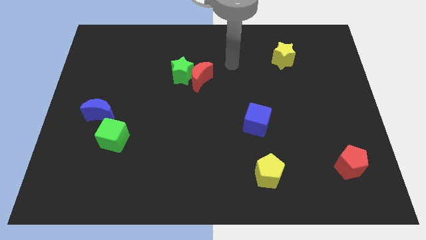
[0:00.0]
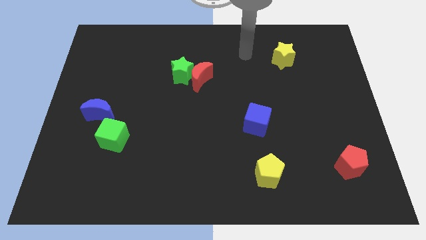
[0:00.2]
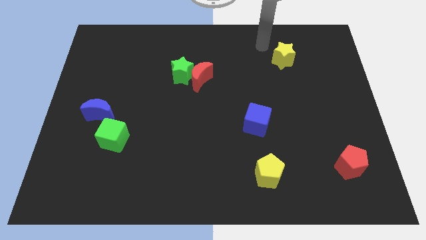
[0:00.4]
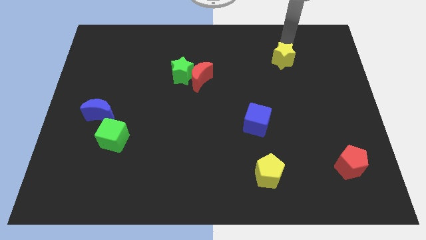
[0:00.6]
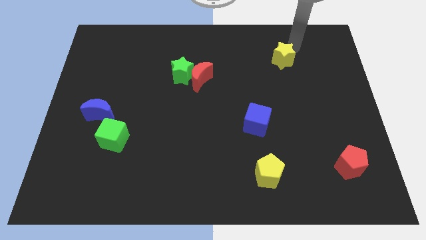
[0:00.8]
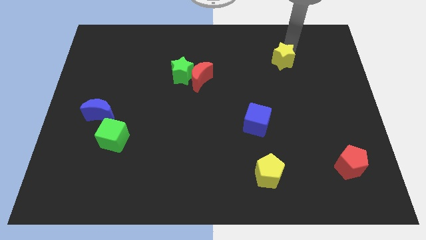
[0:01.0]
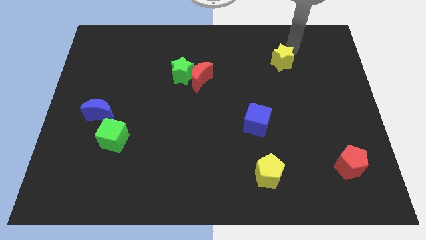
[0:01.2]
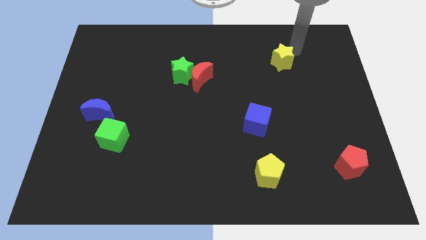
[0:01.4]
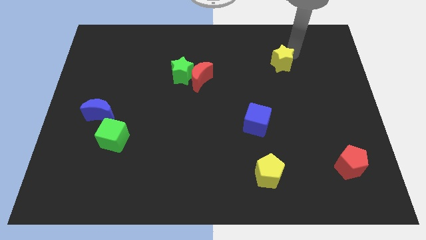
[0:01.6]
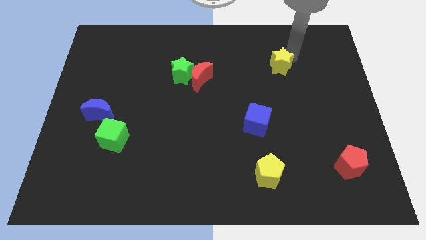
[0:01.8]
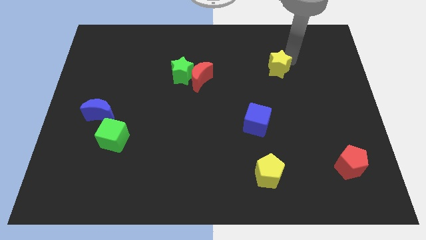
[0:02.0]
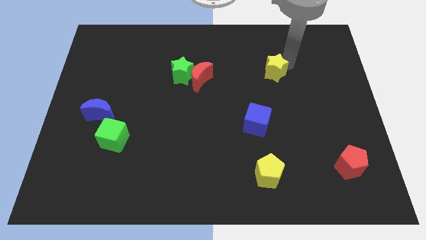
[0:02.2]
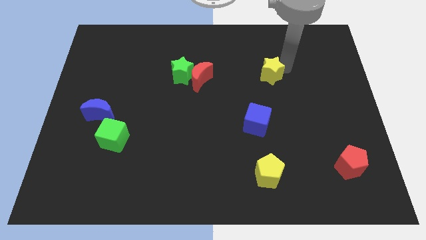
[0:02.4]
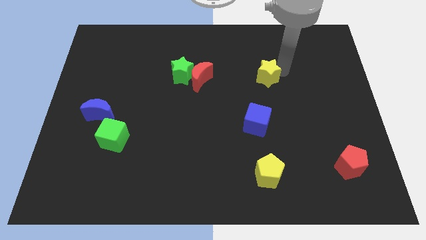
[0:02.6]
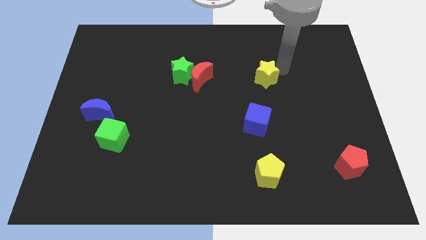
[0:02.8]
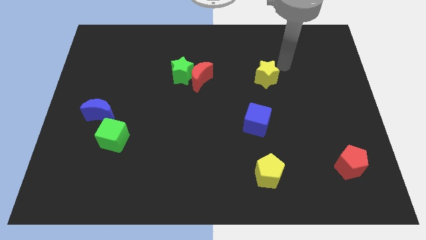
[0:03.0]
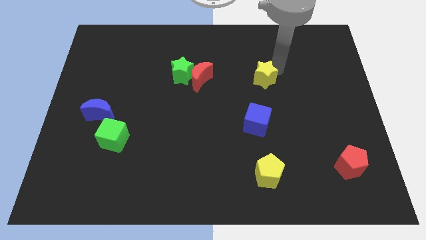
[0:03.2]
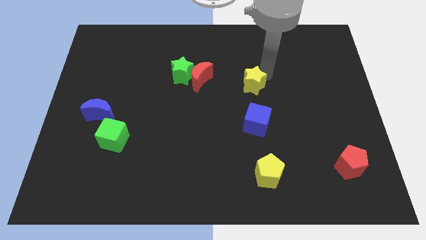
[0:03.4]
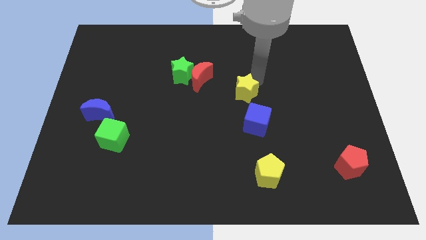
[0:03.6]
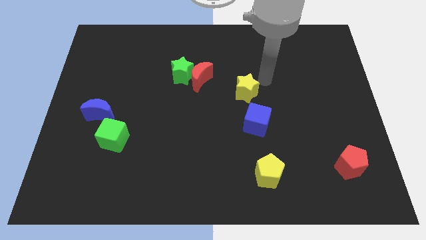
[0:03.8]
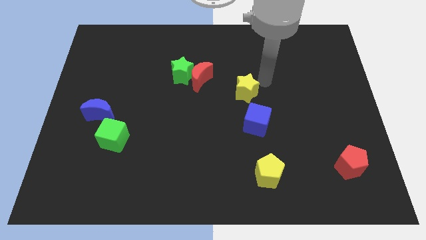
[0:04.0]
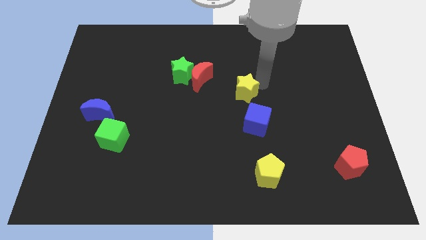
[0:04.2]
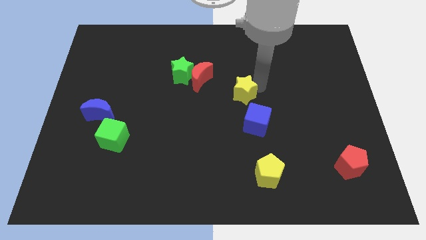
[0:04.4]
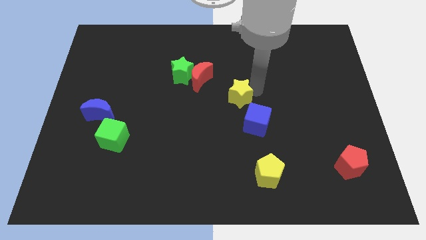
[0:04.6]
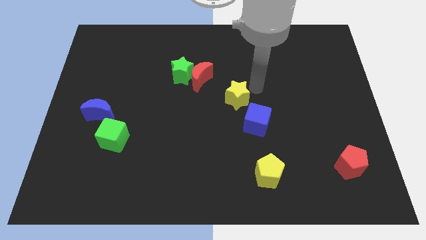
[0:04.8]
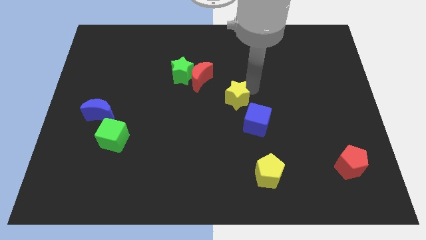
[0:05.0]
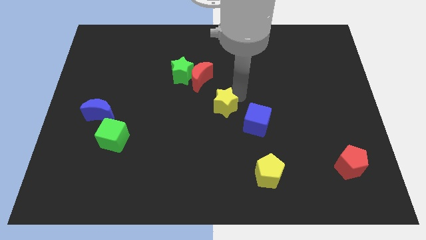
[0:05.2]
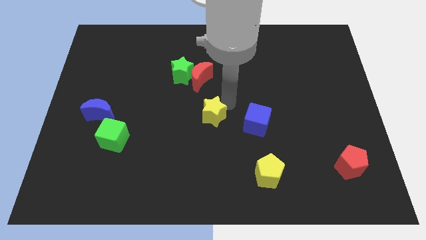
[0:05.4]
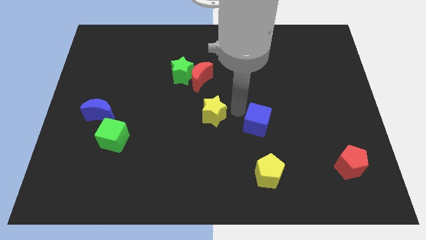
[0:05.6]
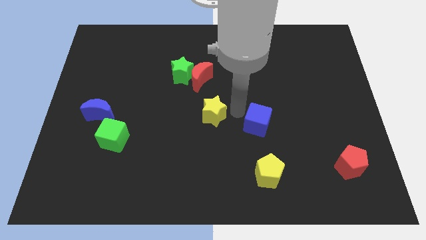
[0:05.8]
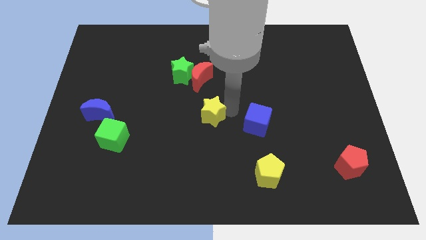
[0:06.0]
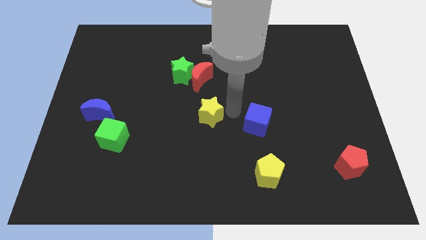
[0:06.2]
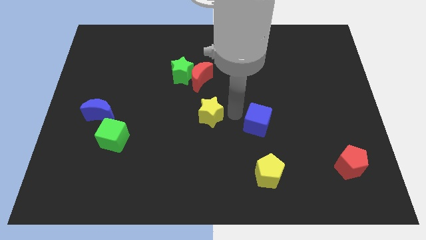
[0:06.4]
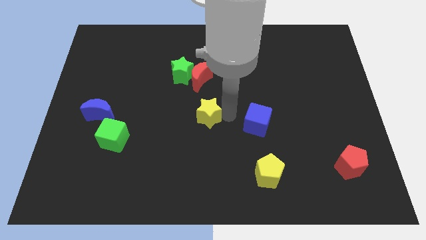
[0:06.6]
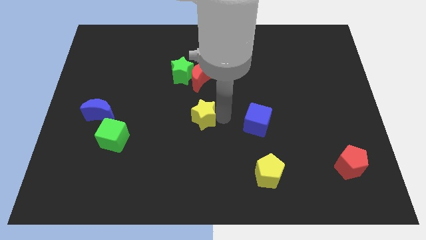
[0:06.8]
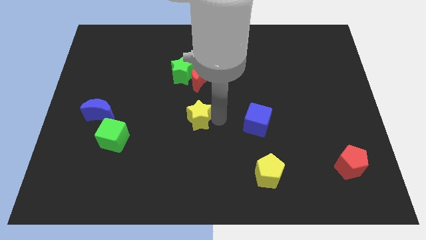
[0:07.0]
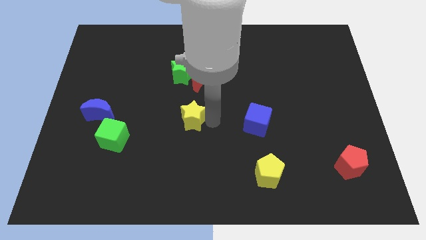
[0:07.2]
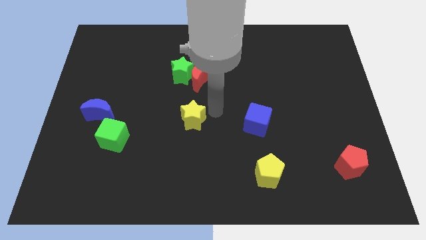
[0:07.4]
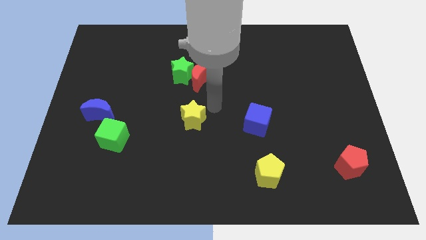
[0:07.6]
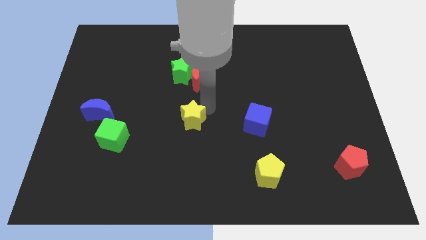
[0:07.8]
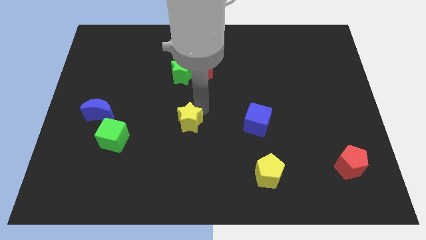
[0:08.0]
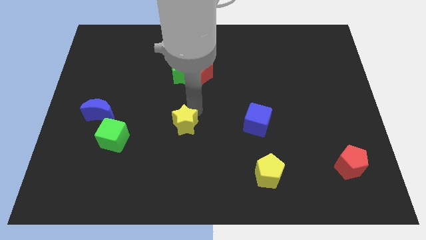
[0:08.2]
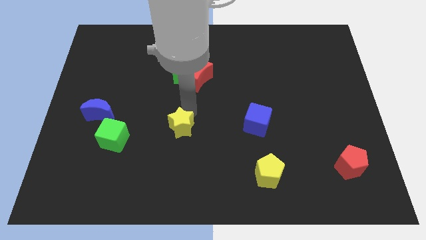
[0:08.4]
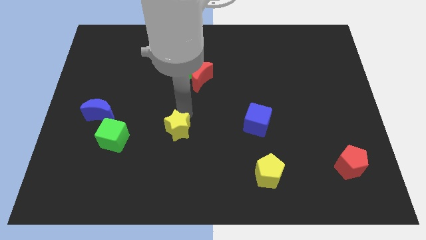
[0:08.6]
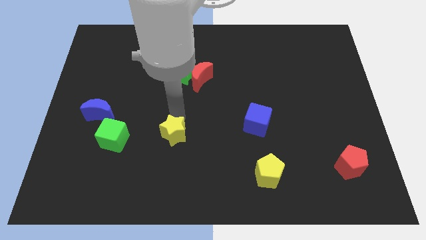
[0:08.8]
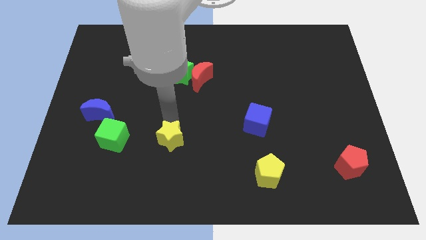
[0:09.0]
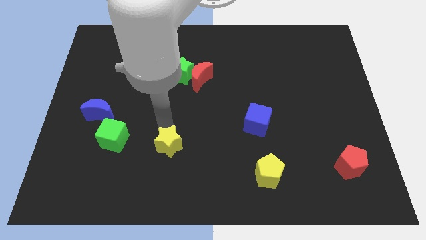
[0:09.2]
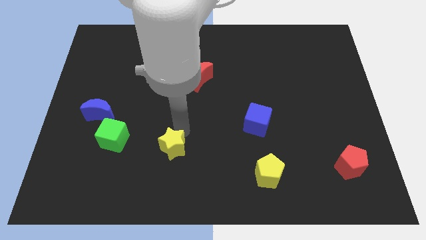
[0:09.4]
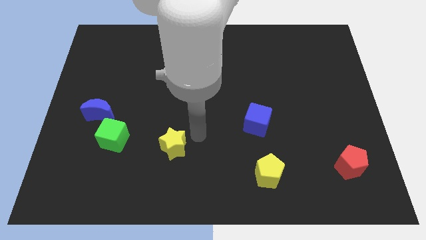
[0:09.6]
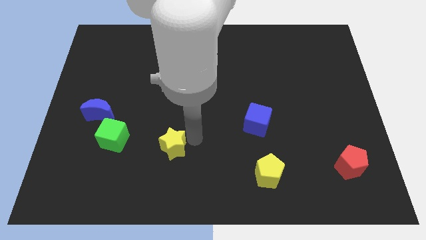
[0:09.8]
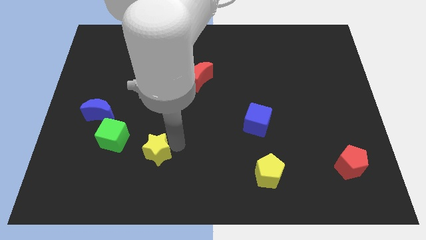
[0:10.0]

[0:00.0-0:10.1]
move the yellow star to the bottom right side of the green cube

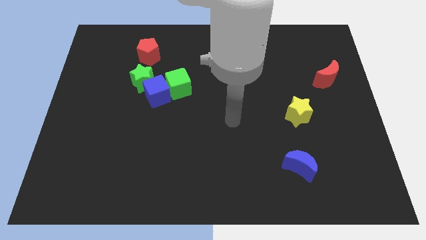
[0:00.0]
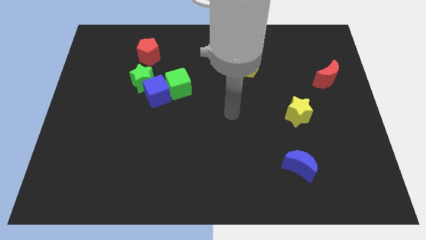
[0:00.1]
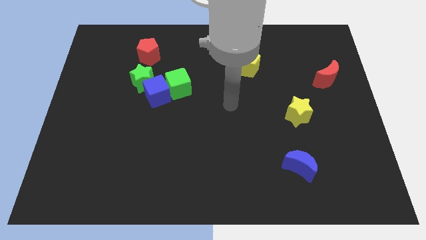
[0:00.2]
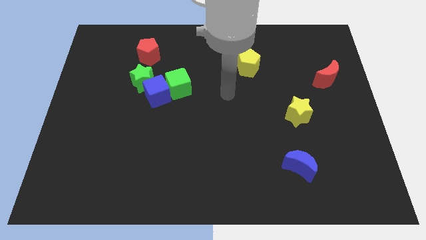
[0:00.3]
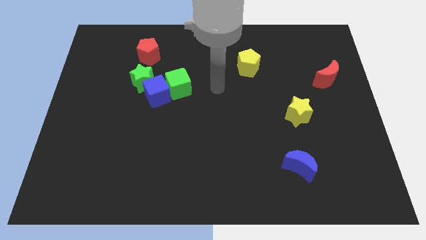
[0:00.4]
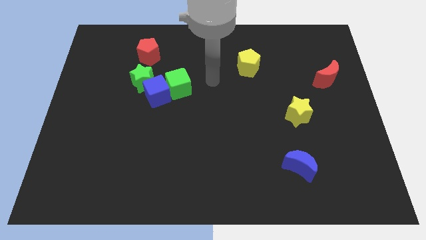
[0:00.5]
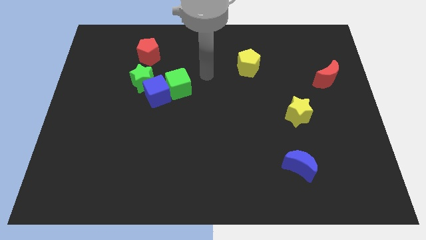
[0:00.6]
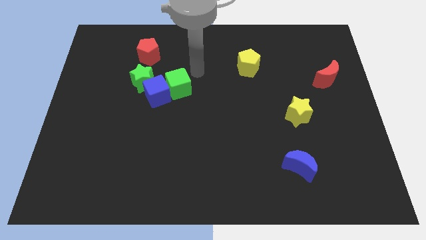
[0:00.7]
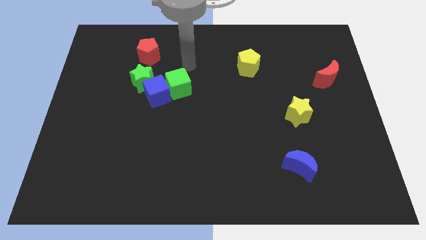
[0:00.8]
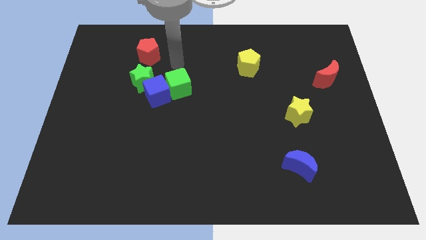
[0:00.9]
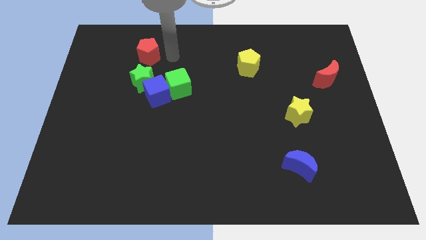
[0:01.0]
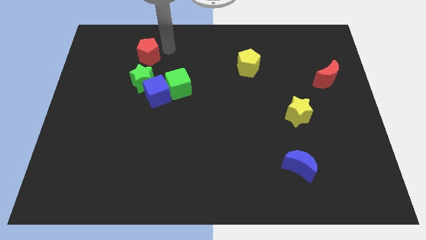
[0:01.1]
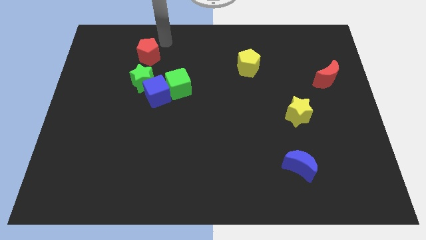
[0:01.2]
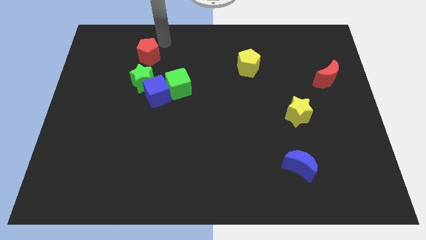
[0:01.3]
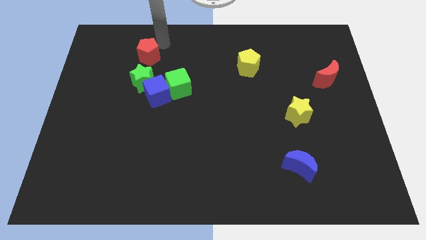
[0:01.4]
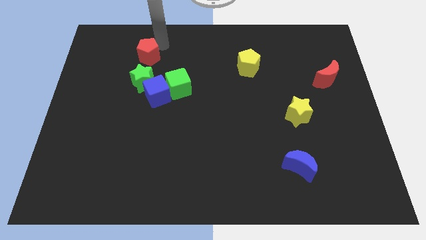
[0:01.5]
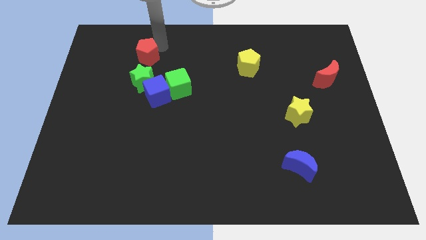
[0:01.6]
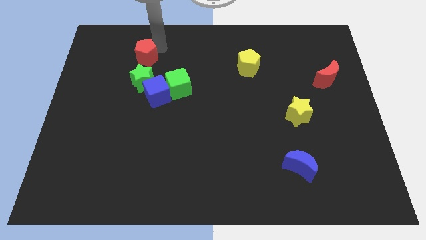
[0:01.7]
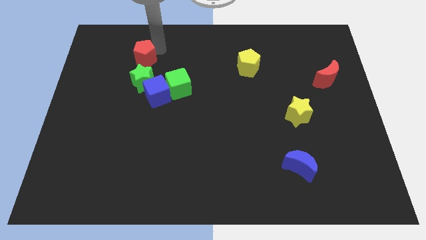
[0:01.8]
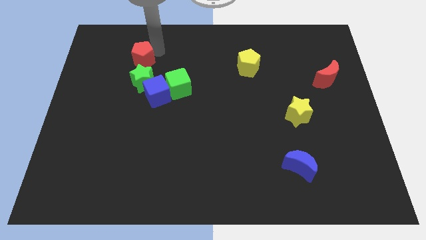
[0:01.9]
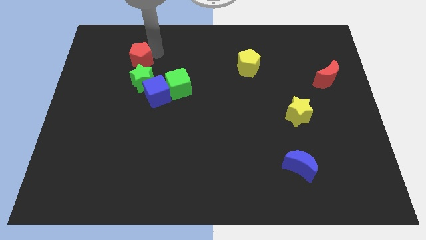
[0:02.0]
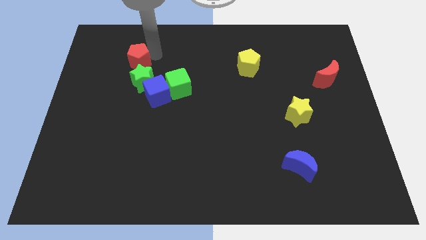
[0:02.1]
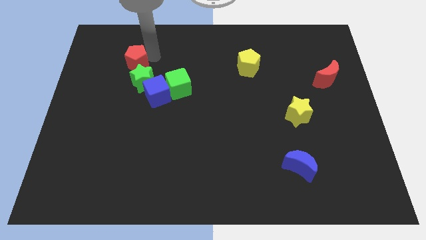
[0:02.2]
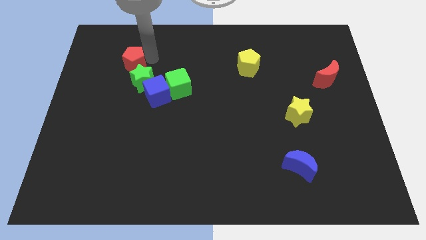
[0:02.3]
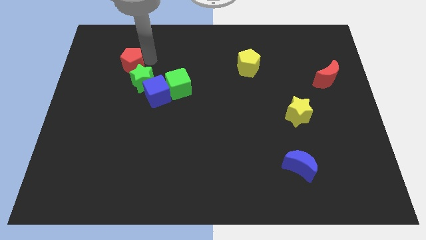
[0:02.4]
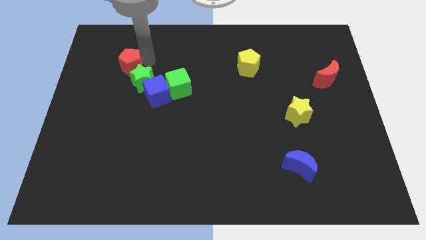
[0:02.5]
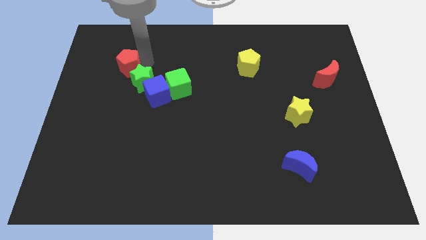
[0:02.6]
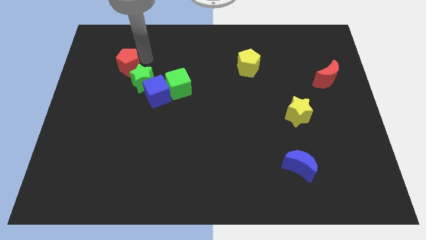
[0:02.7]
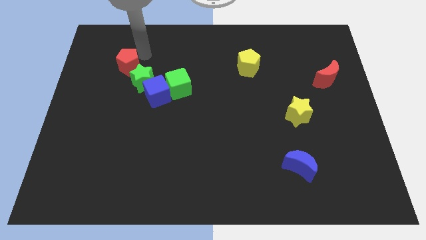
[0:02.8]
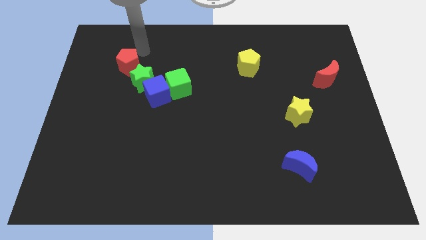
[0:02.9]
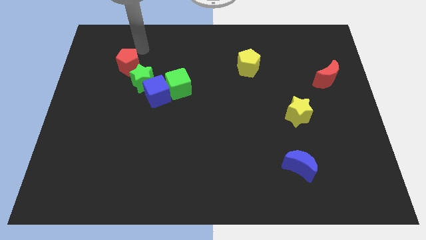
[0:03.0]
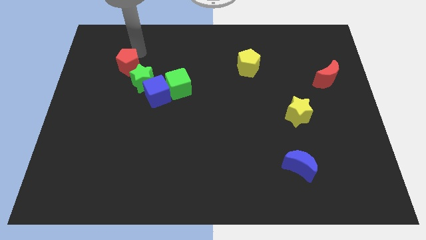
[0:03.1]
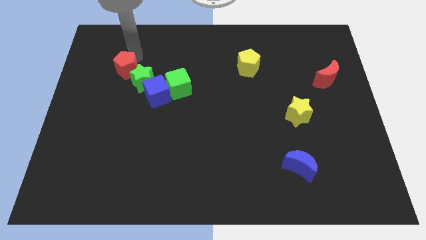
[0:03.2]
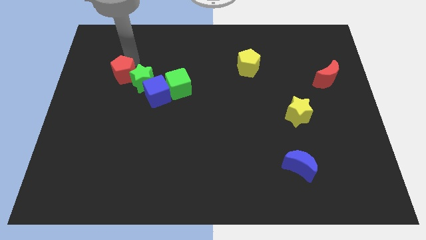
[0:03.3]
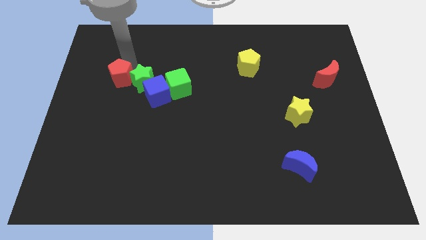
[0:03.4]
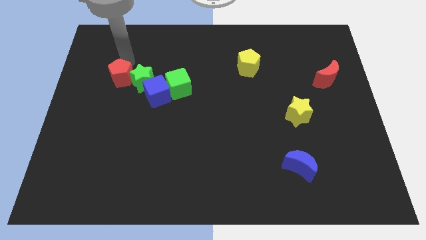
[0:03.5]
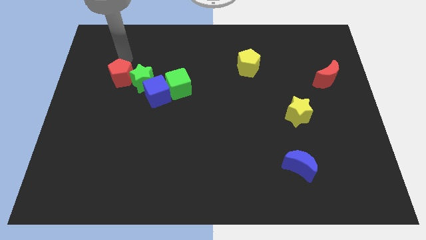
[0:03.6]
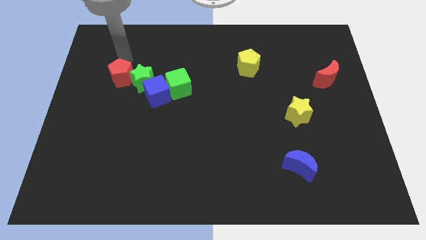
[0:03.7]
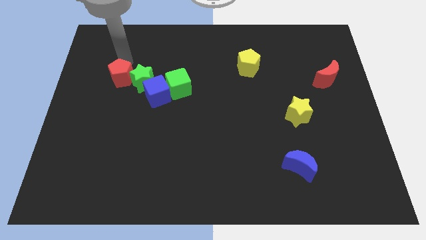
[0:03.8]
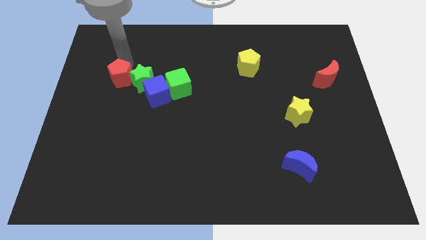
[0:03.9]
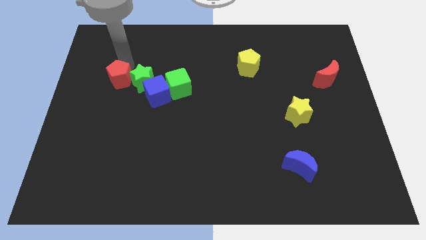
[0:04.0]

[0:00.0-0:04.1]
push the red pentagon diagonally down and to the left of the green star
